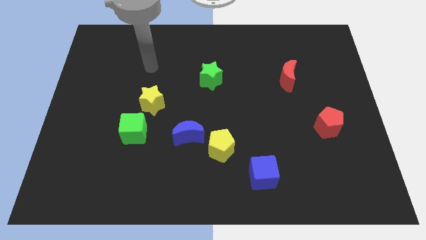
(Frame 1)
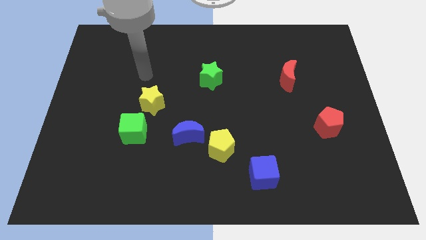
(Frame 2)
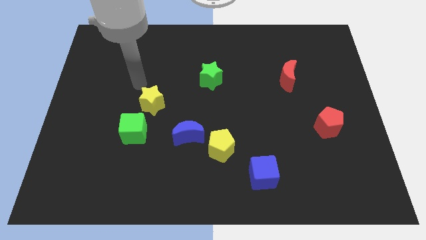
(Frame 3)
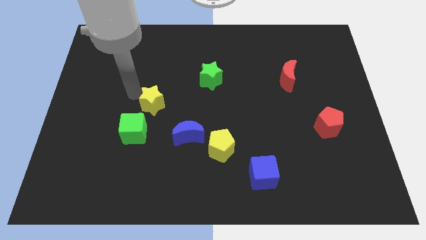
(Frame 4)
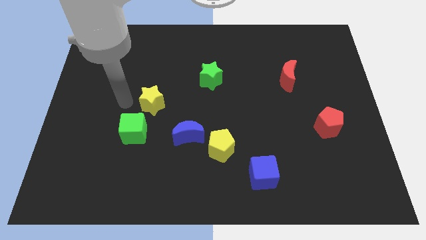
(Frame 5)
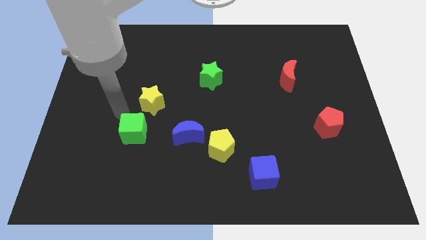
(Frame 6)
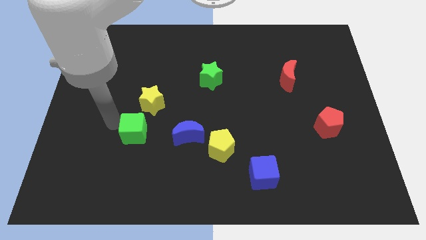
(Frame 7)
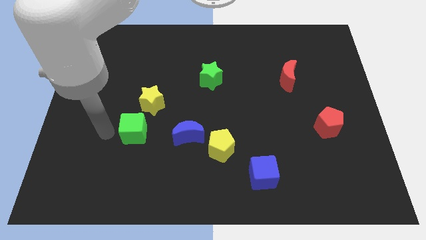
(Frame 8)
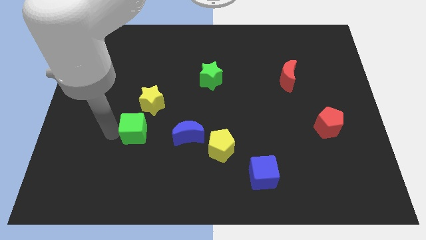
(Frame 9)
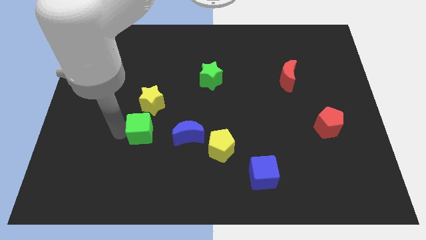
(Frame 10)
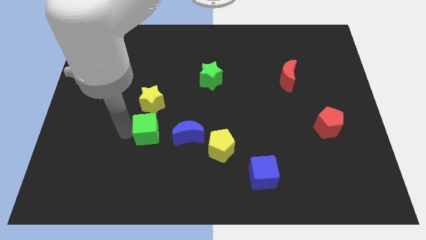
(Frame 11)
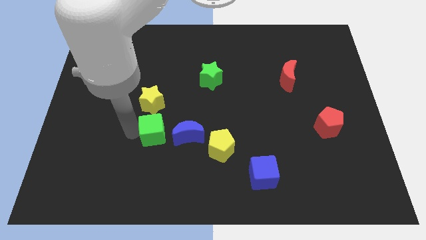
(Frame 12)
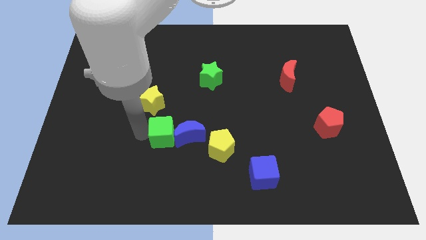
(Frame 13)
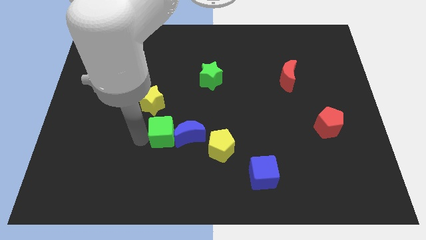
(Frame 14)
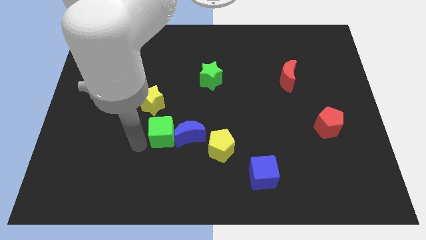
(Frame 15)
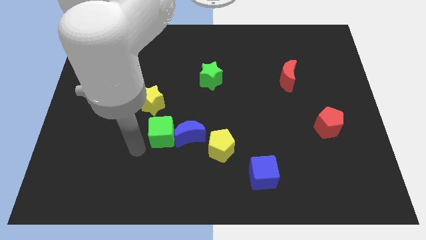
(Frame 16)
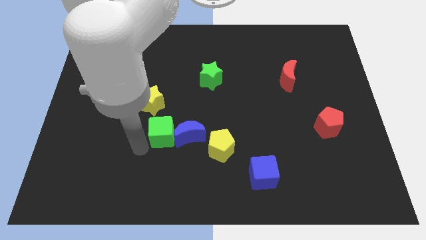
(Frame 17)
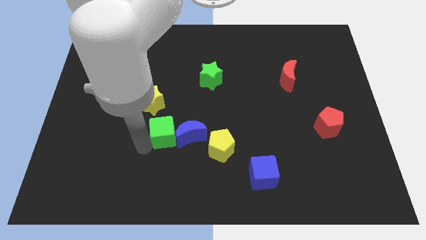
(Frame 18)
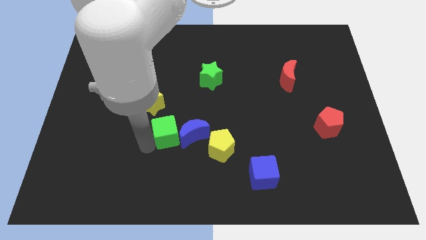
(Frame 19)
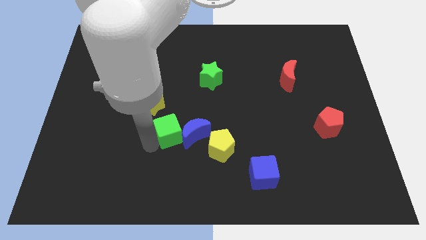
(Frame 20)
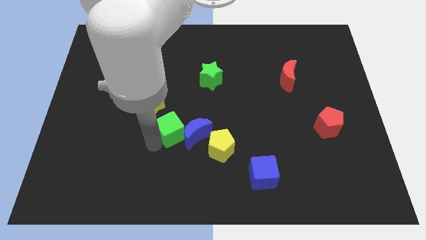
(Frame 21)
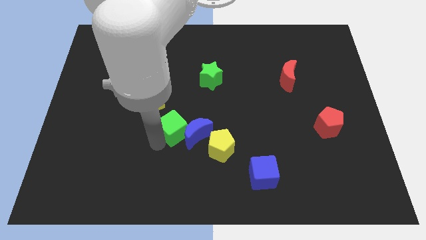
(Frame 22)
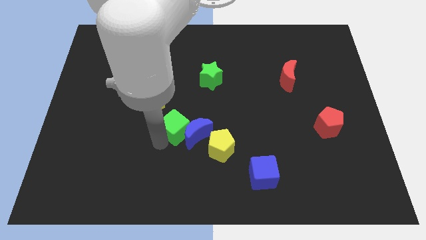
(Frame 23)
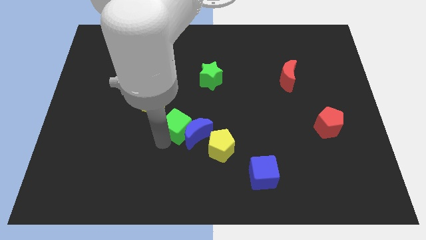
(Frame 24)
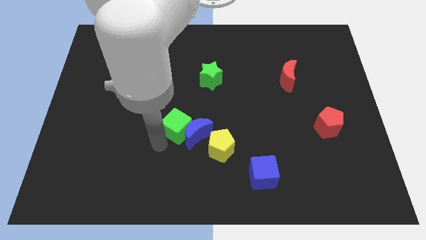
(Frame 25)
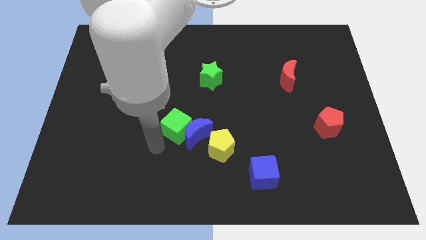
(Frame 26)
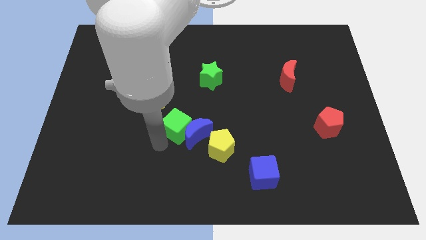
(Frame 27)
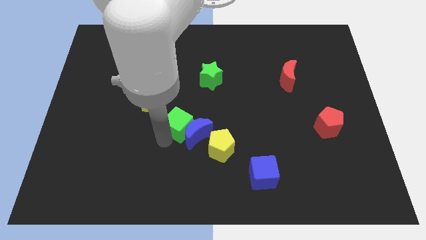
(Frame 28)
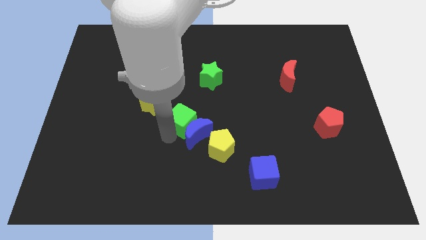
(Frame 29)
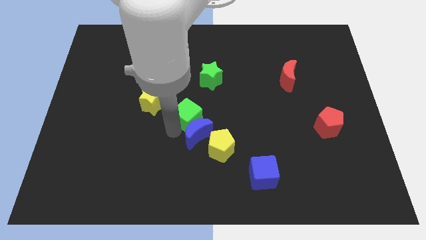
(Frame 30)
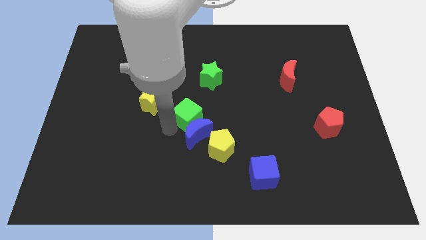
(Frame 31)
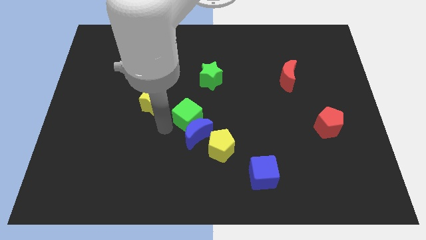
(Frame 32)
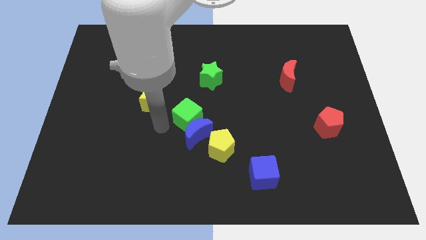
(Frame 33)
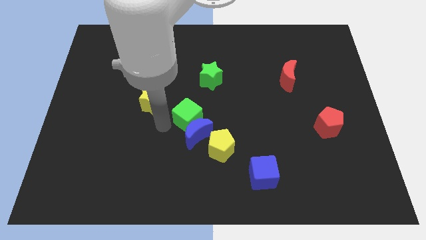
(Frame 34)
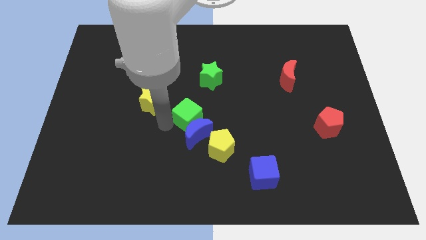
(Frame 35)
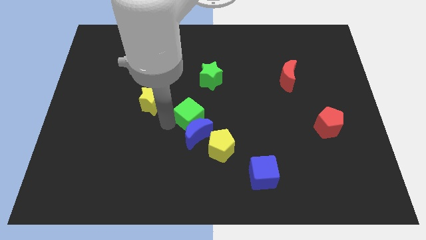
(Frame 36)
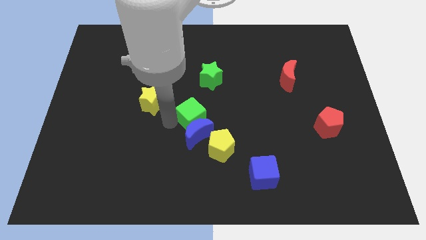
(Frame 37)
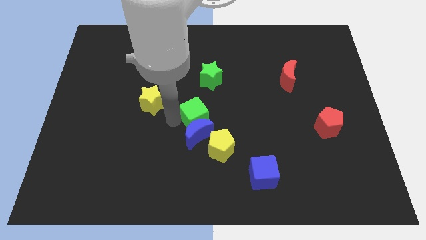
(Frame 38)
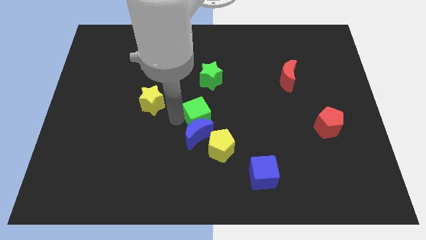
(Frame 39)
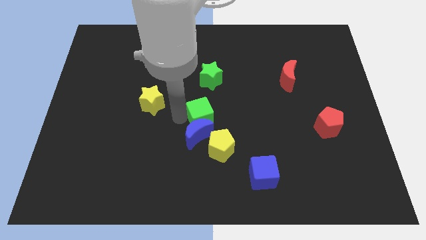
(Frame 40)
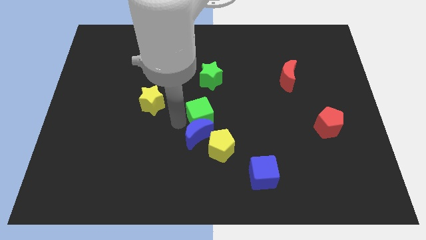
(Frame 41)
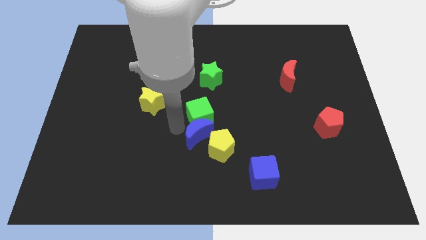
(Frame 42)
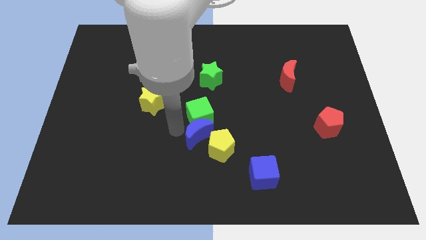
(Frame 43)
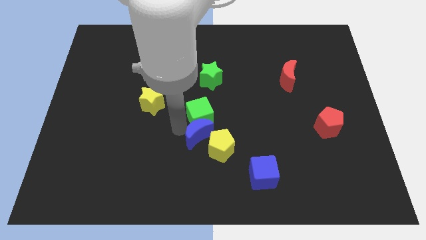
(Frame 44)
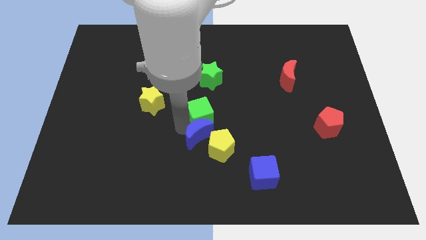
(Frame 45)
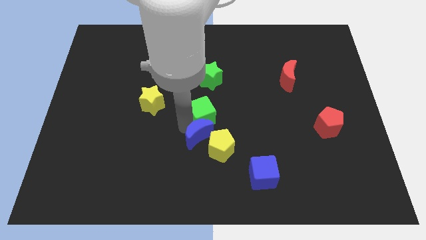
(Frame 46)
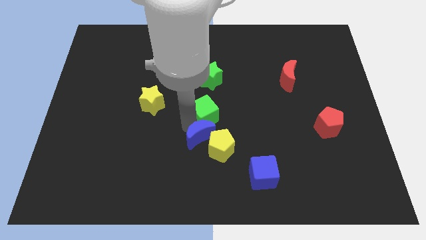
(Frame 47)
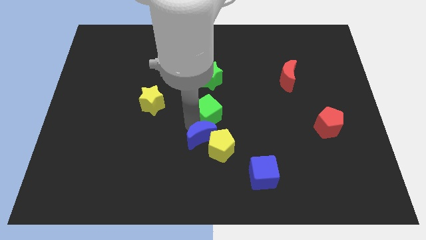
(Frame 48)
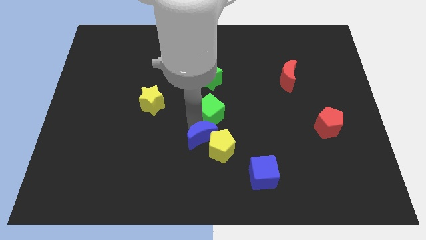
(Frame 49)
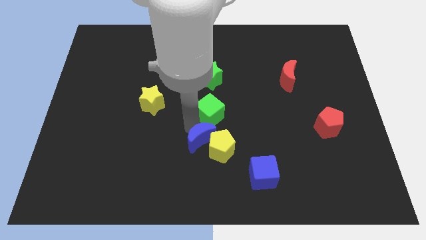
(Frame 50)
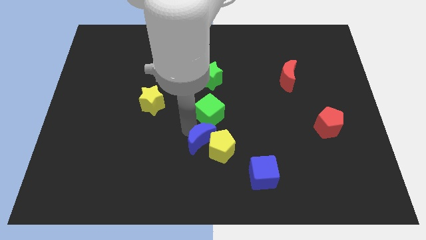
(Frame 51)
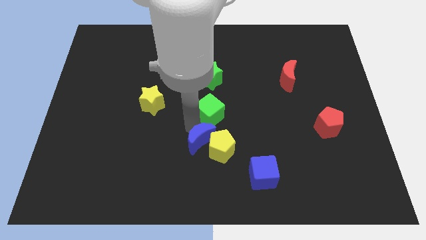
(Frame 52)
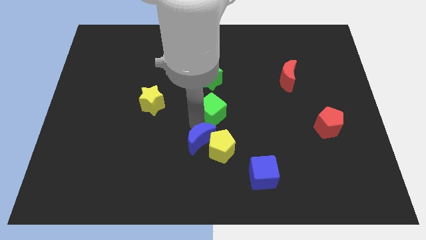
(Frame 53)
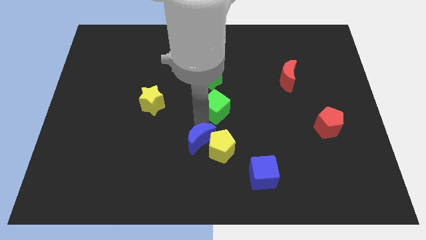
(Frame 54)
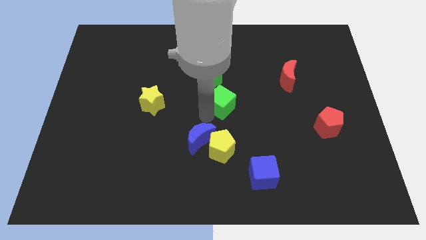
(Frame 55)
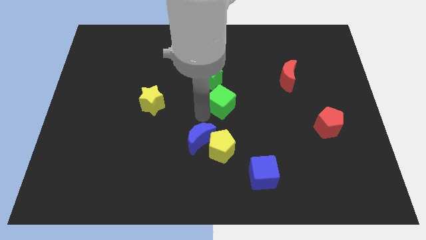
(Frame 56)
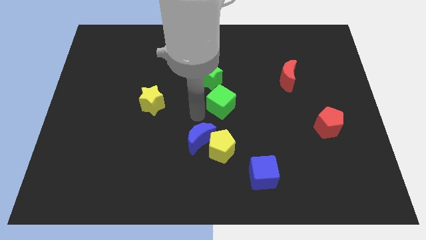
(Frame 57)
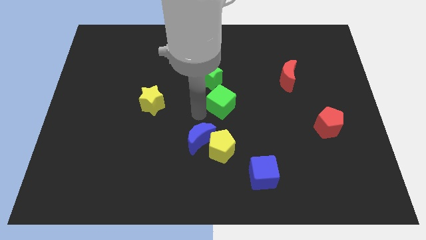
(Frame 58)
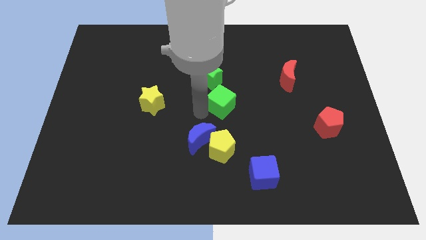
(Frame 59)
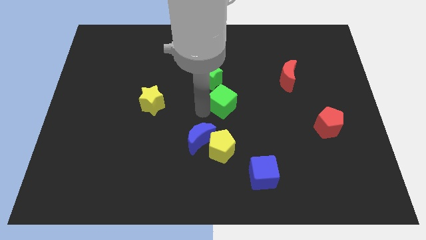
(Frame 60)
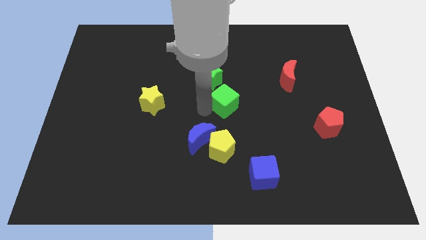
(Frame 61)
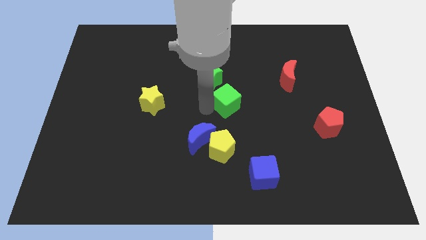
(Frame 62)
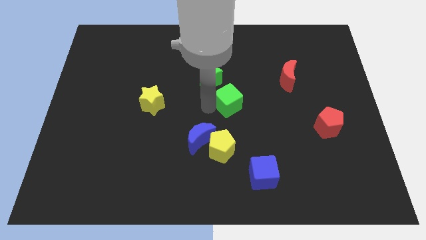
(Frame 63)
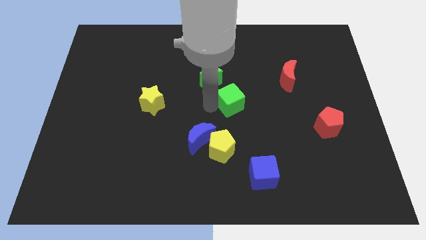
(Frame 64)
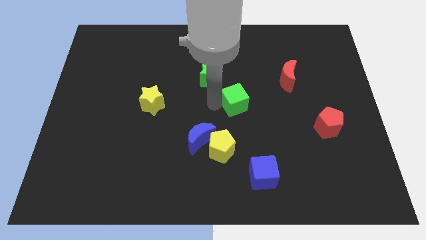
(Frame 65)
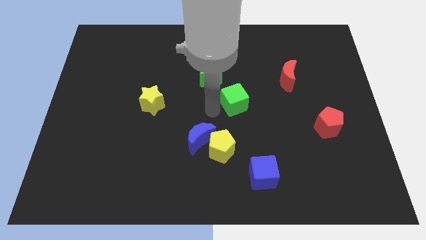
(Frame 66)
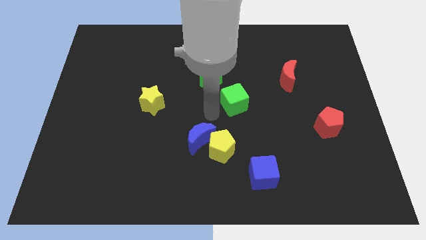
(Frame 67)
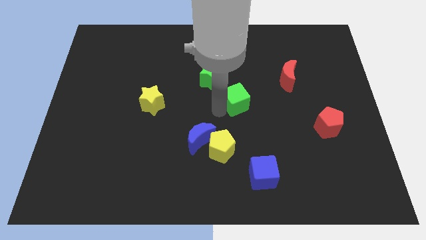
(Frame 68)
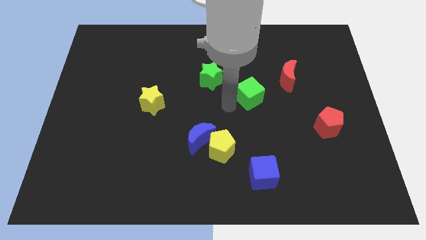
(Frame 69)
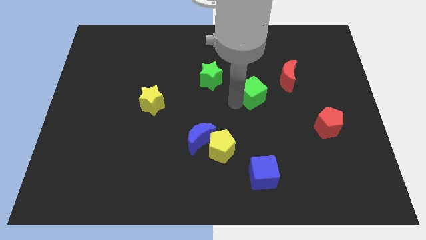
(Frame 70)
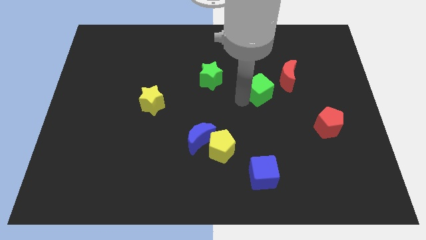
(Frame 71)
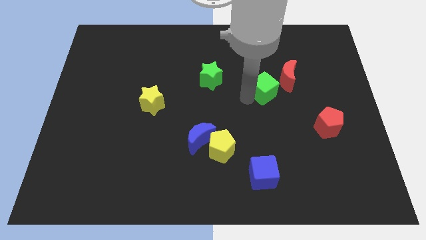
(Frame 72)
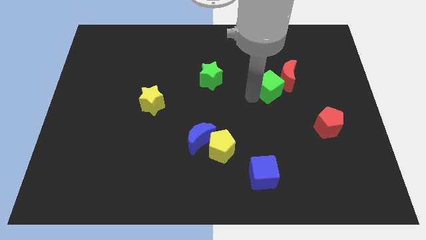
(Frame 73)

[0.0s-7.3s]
move the green cube close to the red moon
